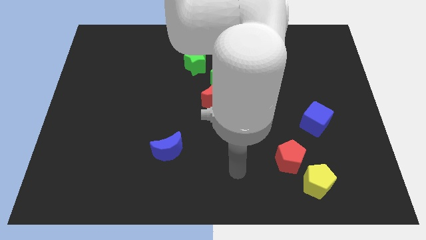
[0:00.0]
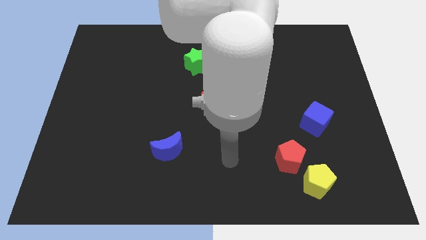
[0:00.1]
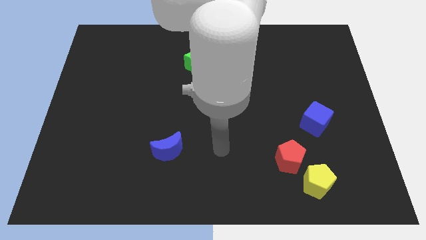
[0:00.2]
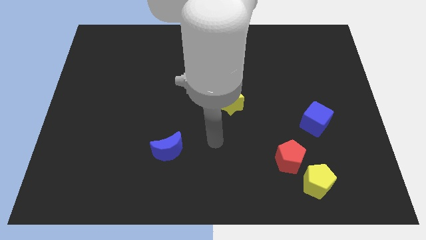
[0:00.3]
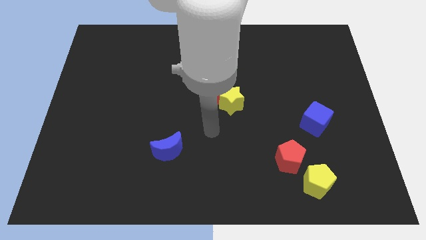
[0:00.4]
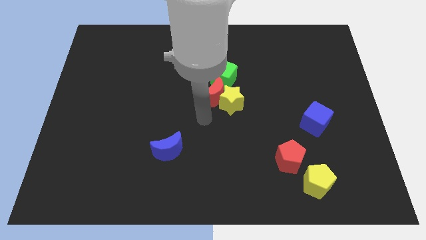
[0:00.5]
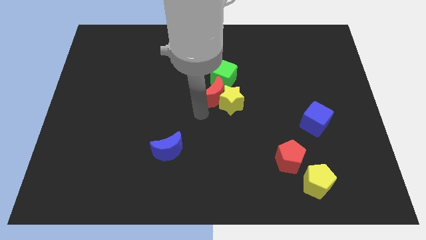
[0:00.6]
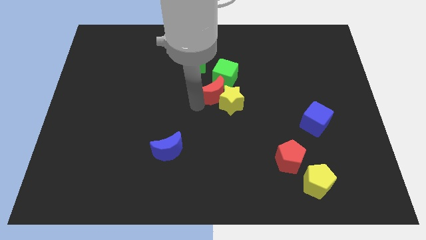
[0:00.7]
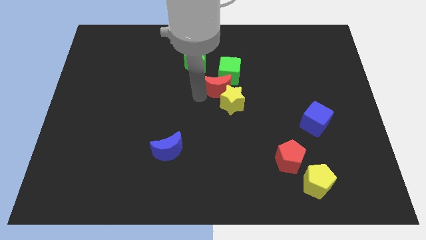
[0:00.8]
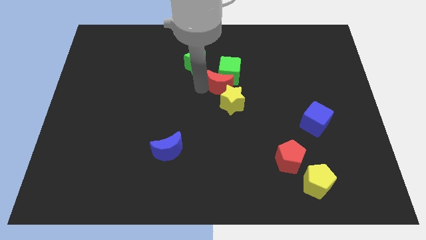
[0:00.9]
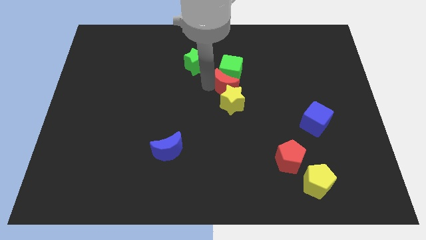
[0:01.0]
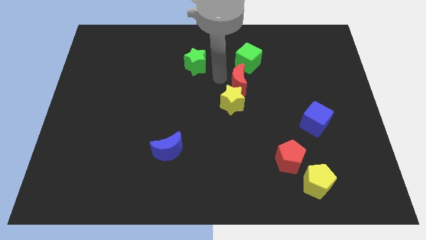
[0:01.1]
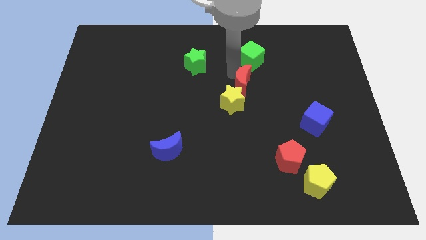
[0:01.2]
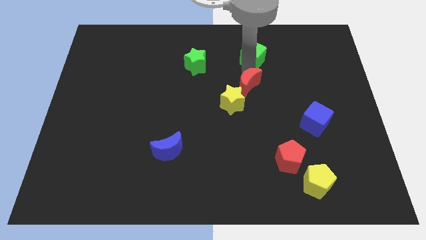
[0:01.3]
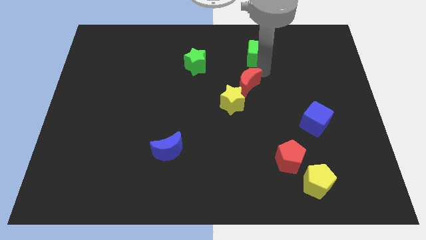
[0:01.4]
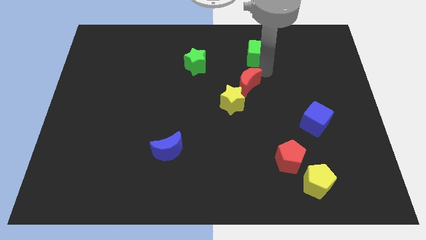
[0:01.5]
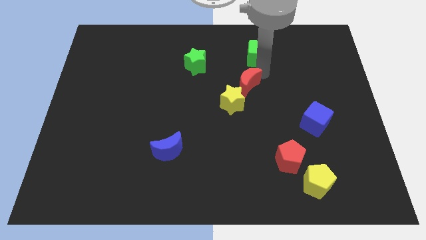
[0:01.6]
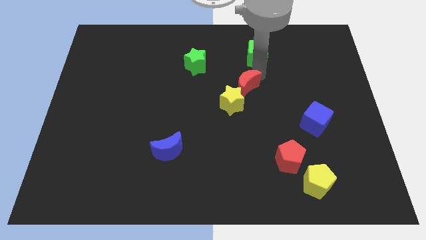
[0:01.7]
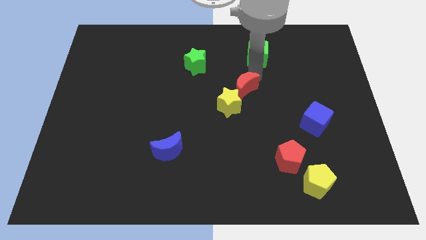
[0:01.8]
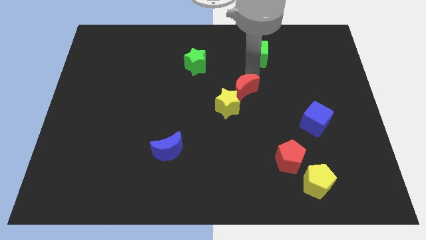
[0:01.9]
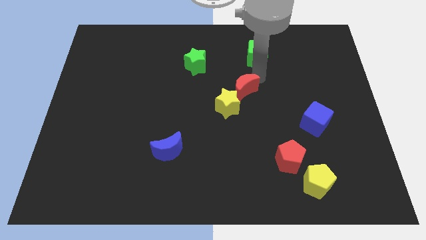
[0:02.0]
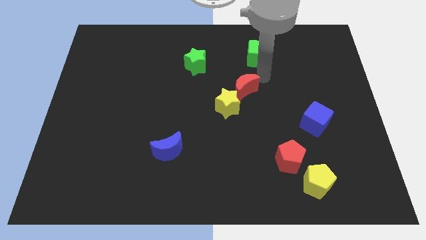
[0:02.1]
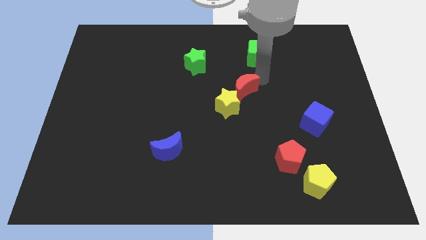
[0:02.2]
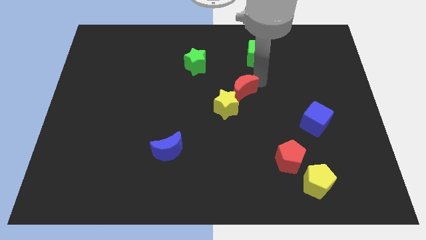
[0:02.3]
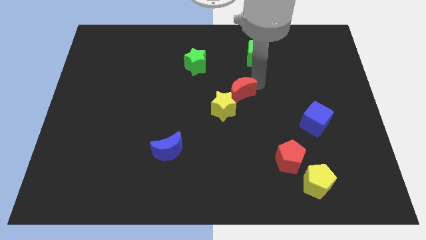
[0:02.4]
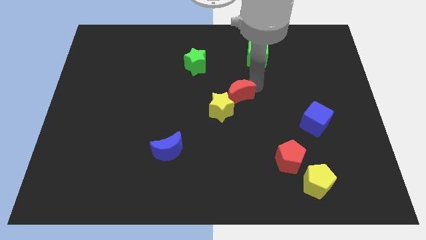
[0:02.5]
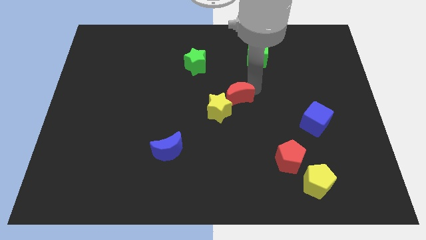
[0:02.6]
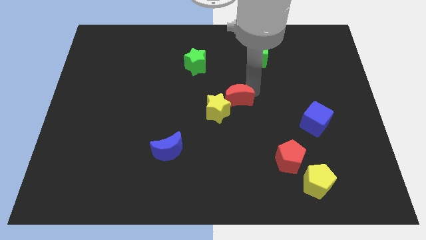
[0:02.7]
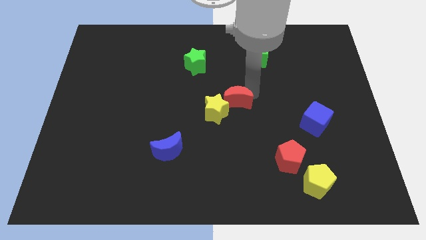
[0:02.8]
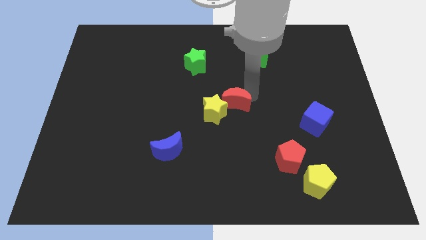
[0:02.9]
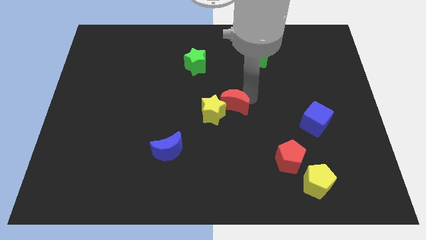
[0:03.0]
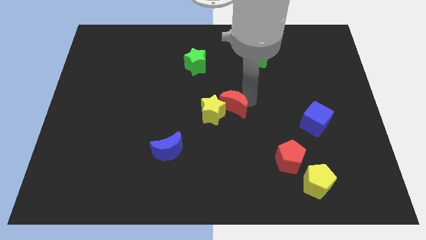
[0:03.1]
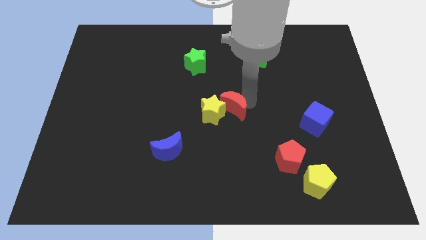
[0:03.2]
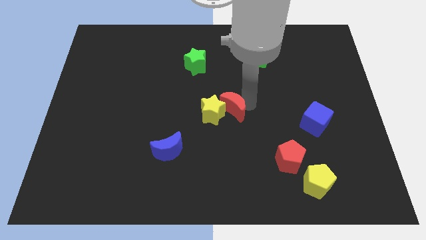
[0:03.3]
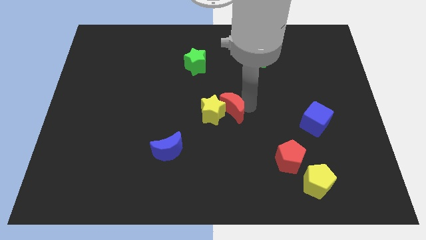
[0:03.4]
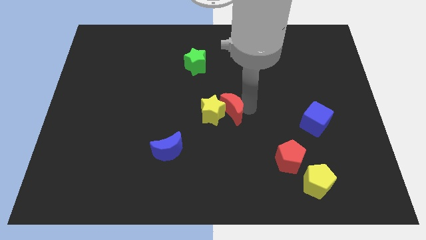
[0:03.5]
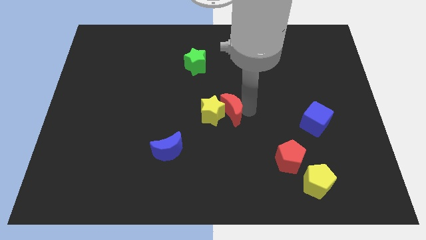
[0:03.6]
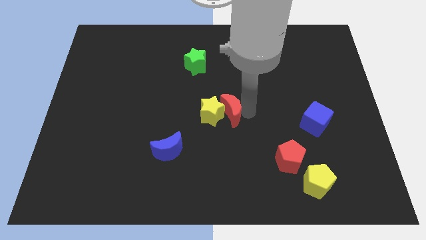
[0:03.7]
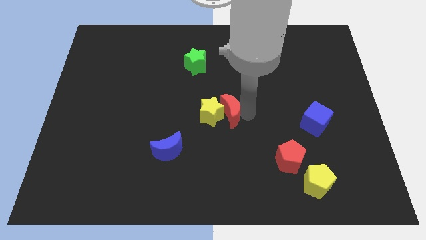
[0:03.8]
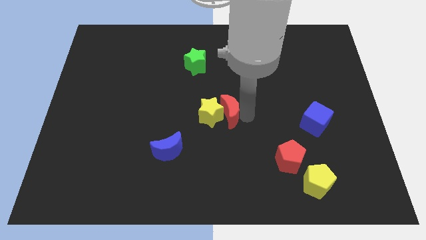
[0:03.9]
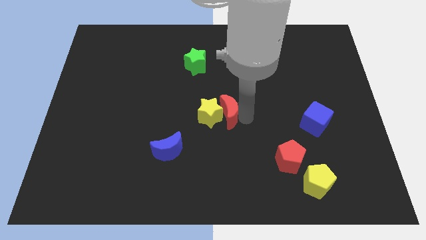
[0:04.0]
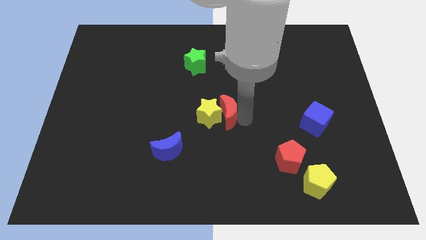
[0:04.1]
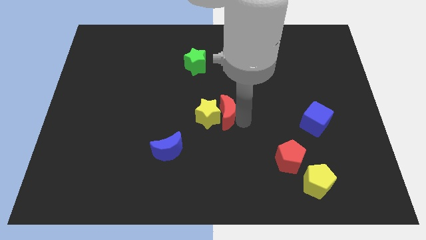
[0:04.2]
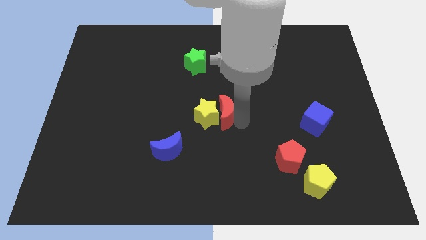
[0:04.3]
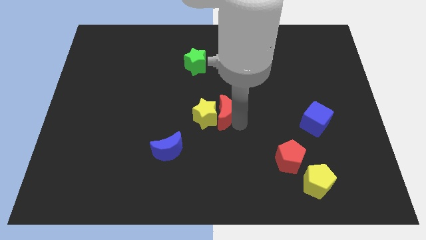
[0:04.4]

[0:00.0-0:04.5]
separate the red moon from the yellow star and green cube

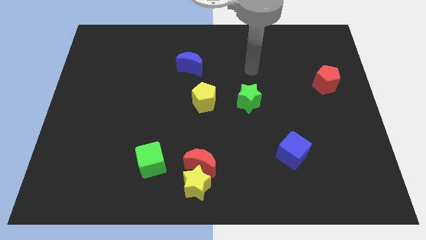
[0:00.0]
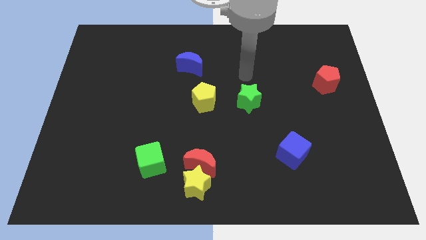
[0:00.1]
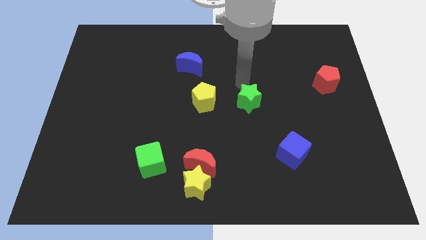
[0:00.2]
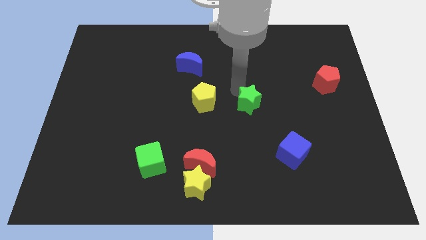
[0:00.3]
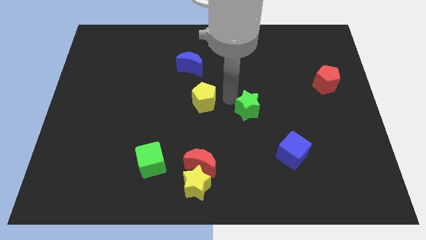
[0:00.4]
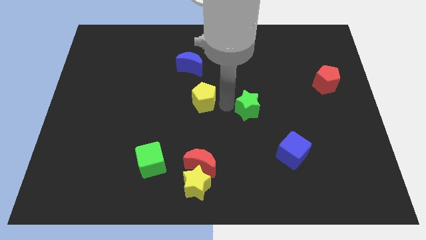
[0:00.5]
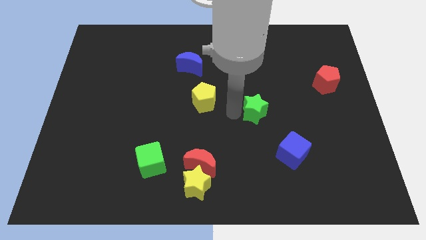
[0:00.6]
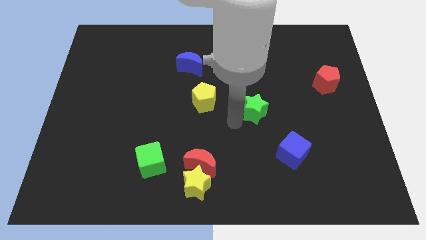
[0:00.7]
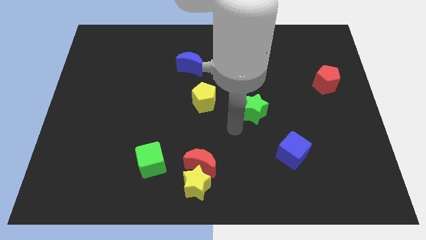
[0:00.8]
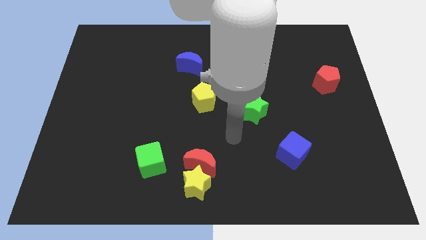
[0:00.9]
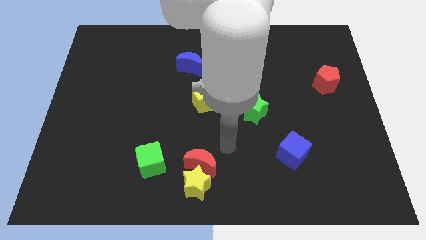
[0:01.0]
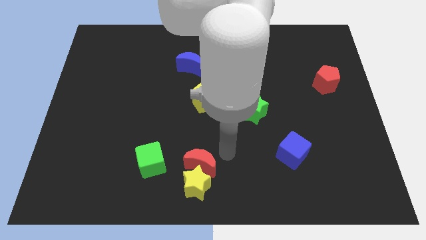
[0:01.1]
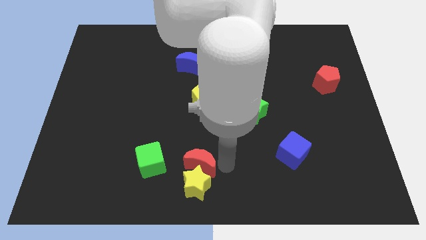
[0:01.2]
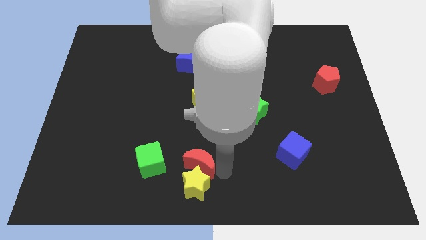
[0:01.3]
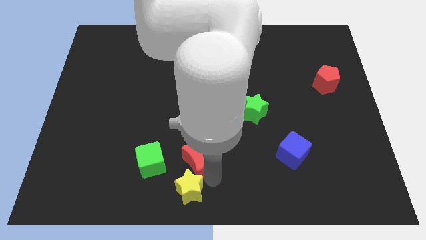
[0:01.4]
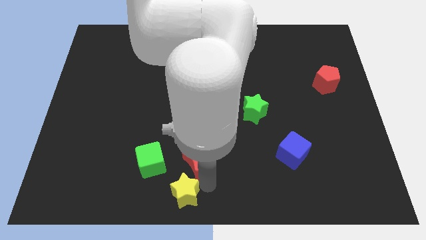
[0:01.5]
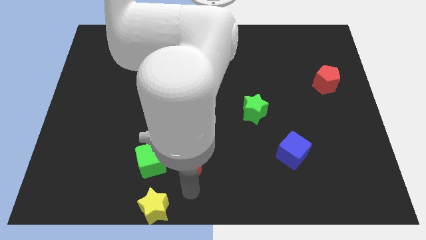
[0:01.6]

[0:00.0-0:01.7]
separate the red moon from the yellow star

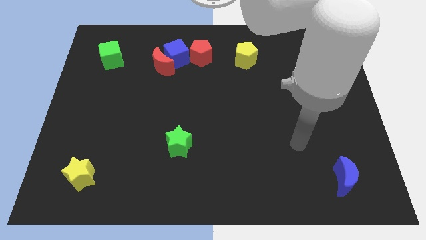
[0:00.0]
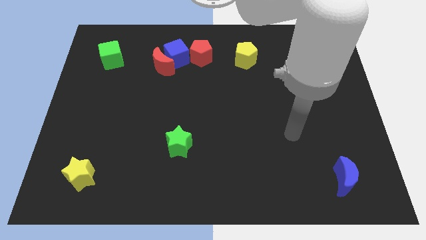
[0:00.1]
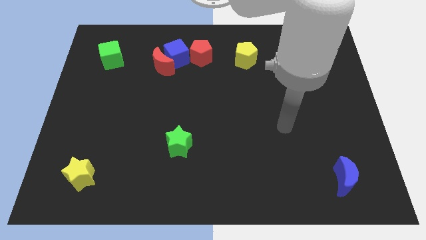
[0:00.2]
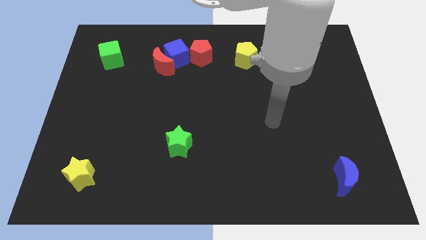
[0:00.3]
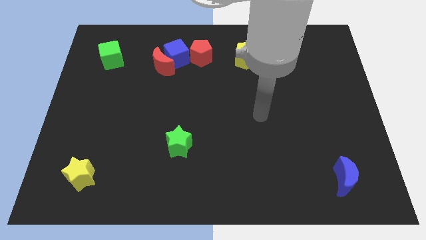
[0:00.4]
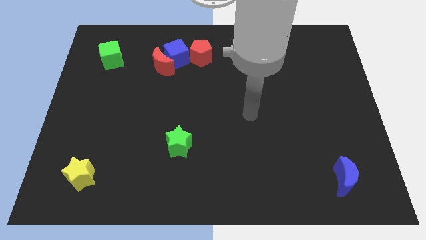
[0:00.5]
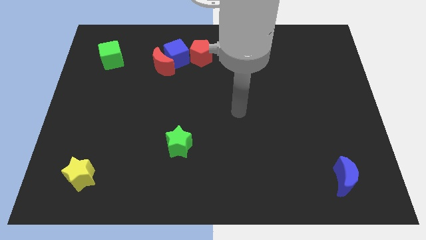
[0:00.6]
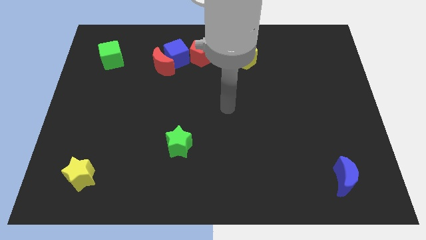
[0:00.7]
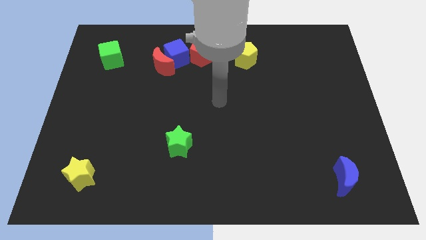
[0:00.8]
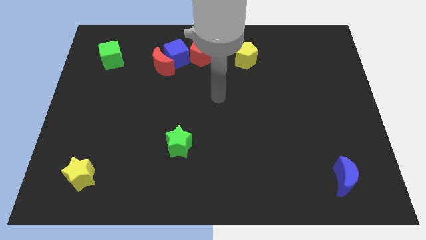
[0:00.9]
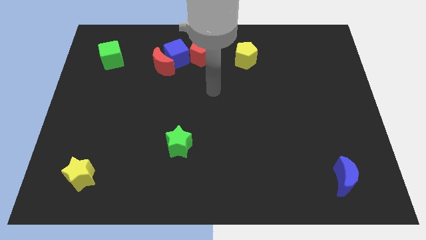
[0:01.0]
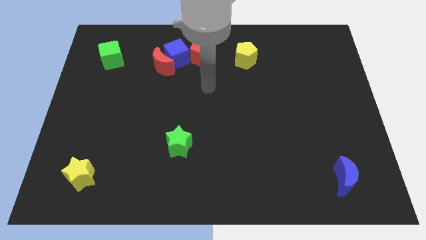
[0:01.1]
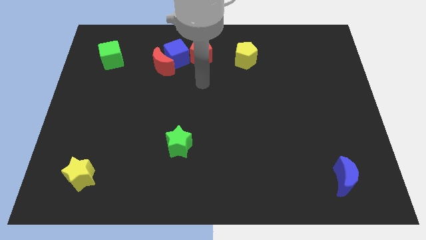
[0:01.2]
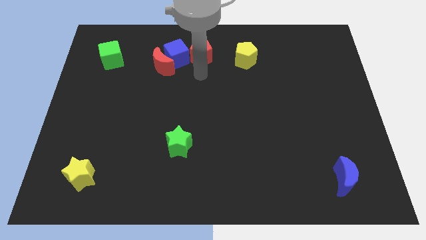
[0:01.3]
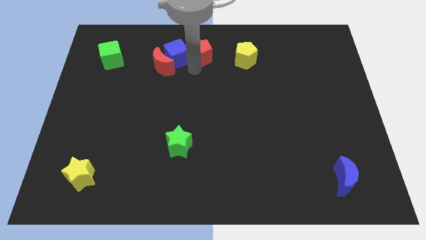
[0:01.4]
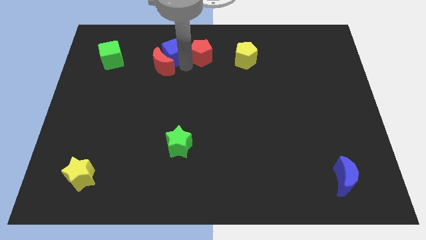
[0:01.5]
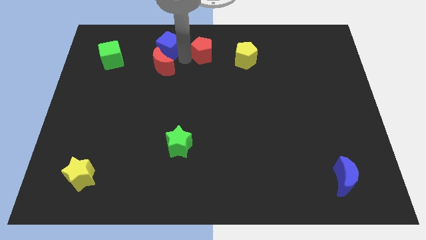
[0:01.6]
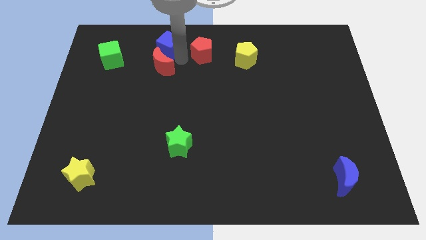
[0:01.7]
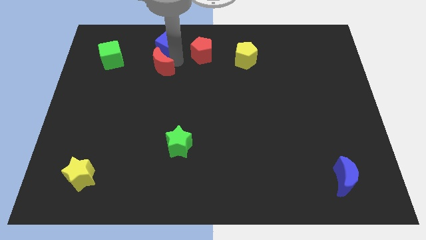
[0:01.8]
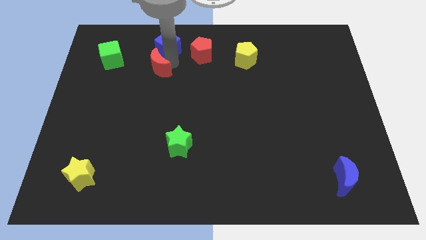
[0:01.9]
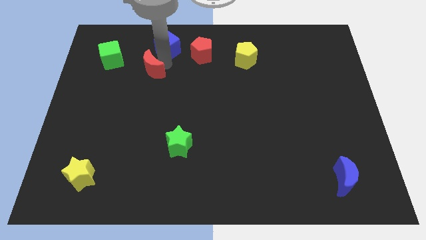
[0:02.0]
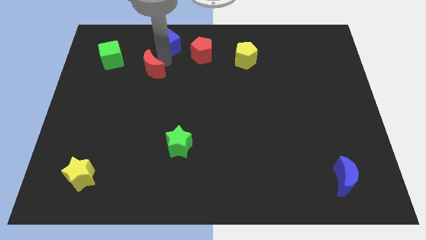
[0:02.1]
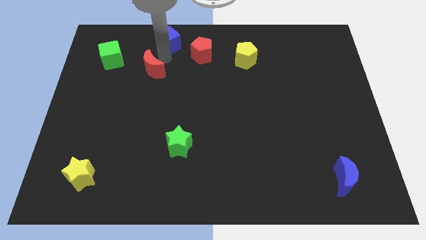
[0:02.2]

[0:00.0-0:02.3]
separate the red moon from the blue cube

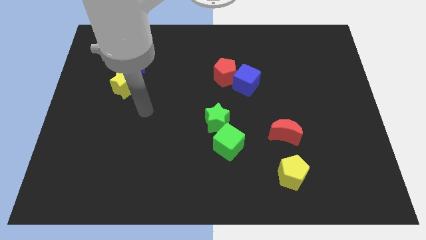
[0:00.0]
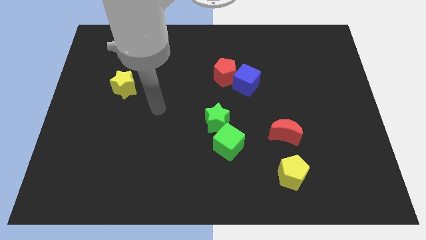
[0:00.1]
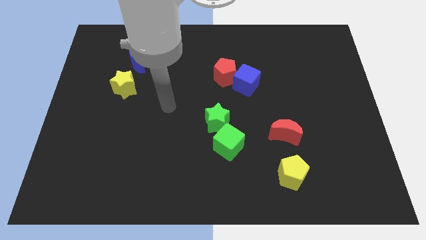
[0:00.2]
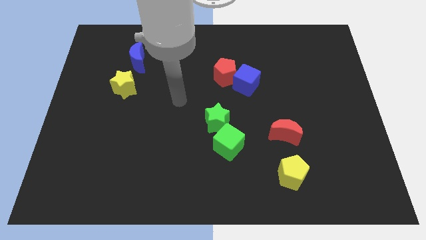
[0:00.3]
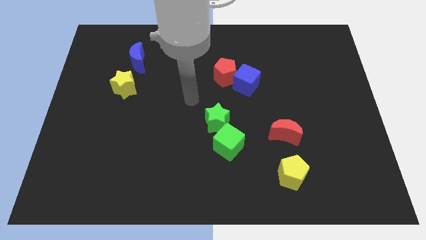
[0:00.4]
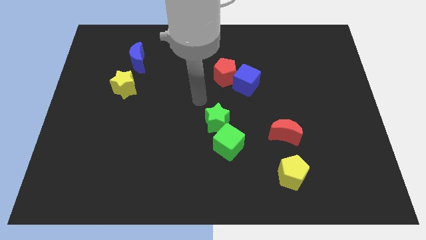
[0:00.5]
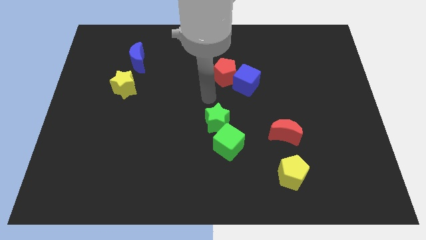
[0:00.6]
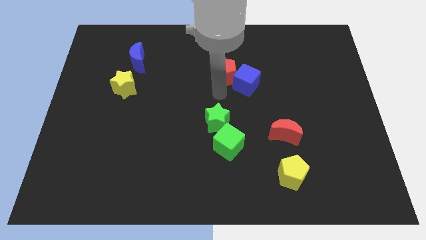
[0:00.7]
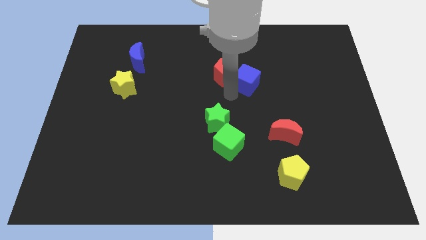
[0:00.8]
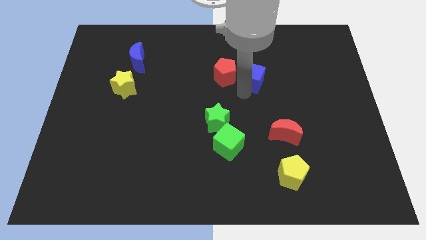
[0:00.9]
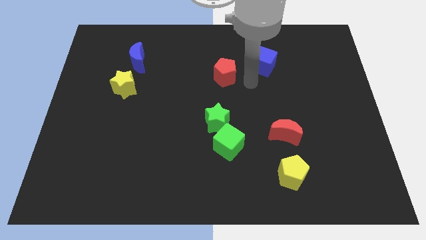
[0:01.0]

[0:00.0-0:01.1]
pull the red pentagon apart from the blue cube
